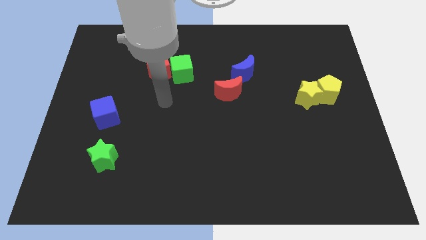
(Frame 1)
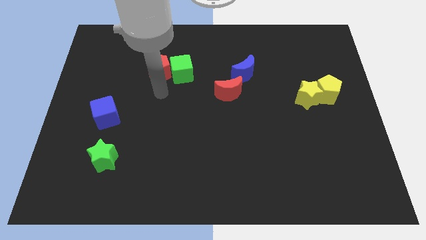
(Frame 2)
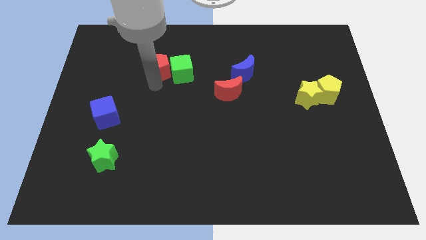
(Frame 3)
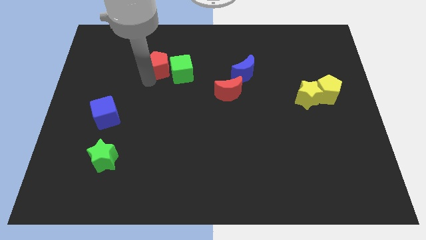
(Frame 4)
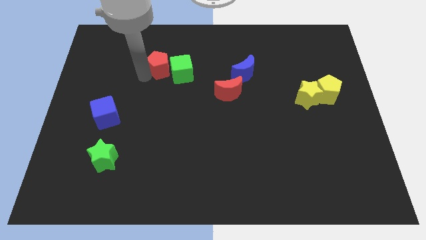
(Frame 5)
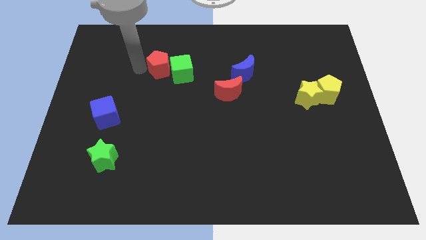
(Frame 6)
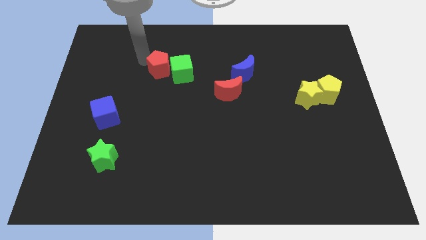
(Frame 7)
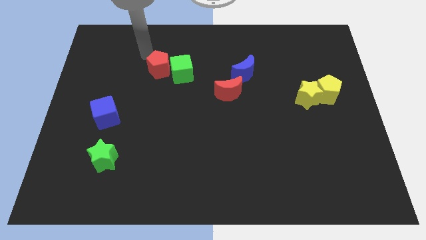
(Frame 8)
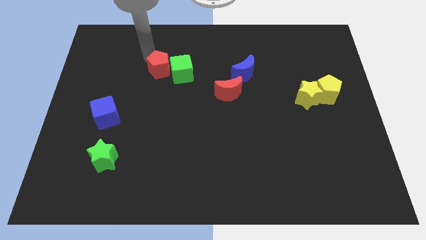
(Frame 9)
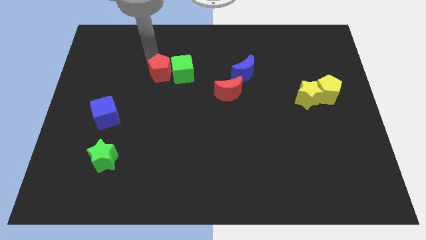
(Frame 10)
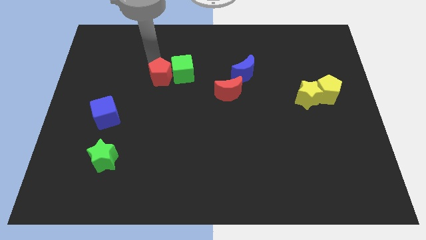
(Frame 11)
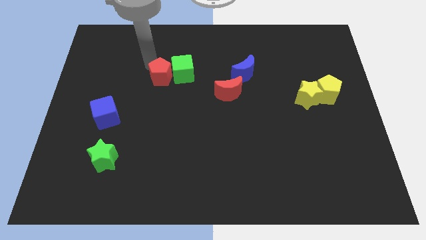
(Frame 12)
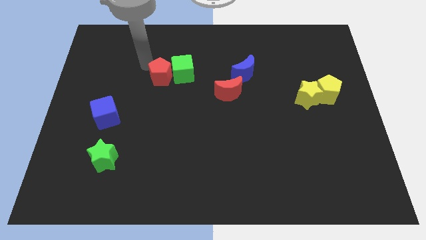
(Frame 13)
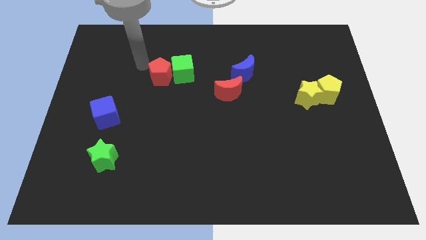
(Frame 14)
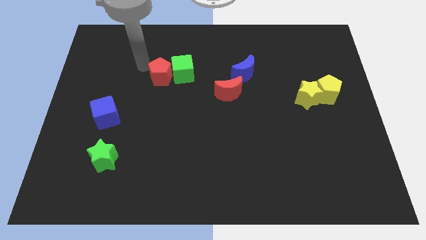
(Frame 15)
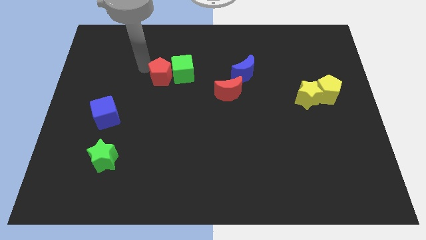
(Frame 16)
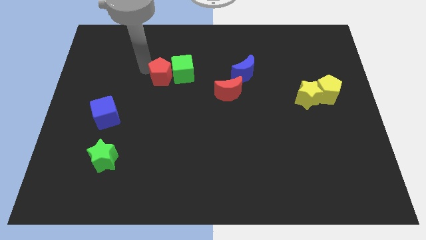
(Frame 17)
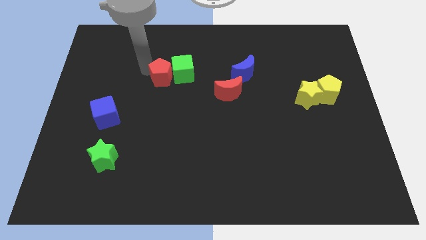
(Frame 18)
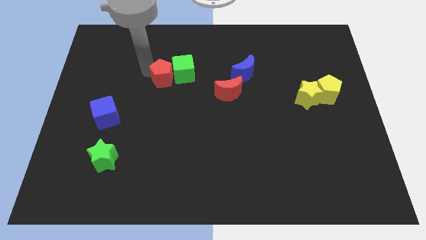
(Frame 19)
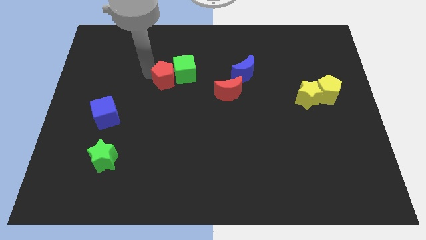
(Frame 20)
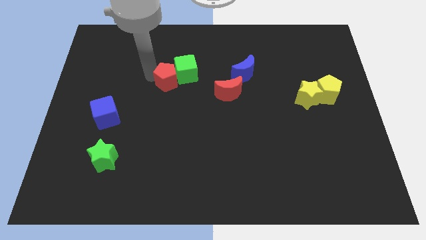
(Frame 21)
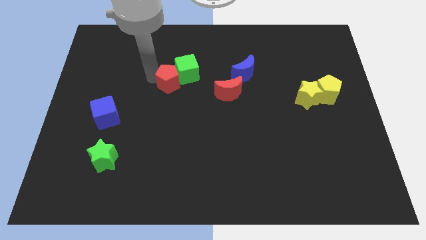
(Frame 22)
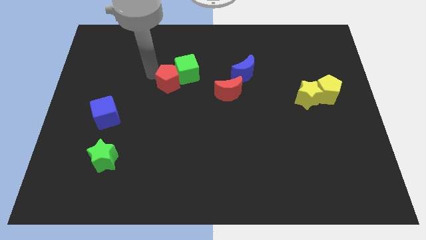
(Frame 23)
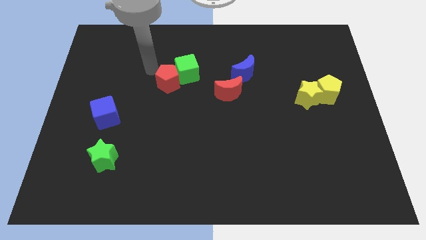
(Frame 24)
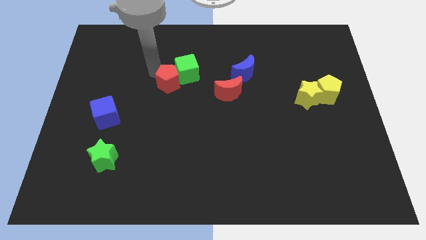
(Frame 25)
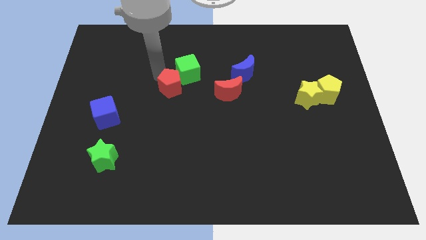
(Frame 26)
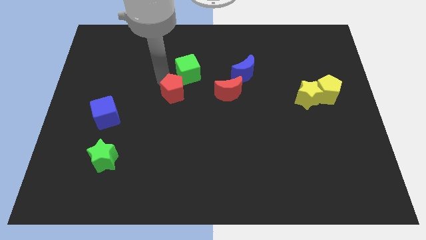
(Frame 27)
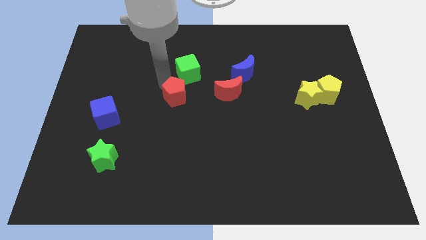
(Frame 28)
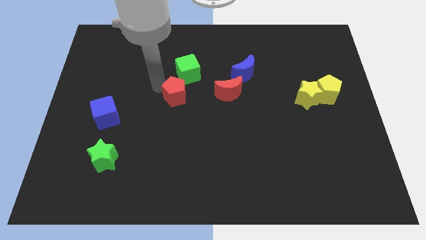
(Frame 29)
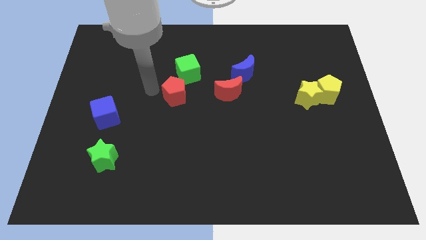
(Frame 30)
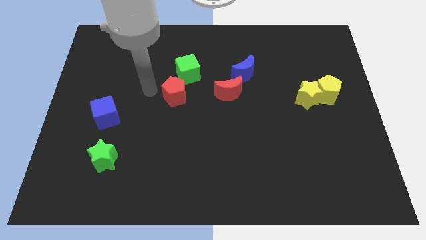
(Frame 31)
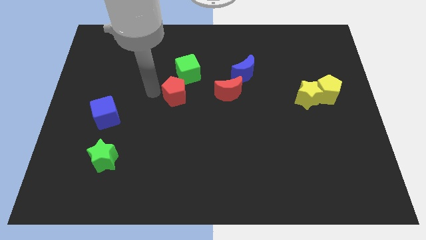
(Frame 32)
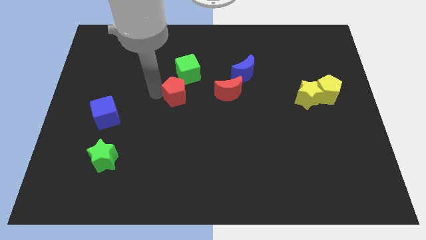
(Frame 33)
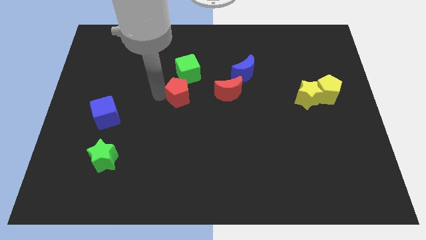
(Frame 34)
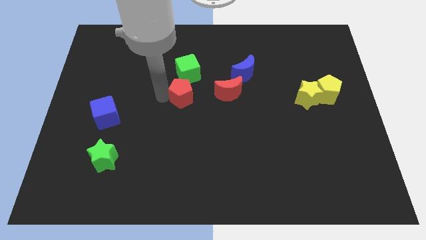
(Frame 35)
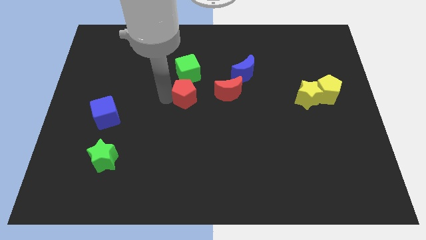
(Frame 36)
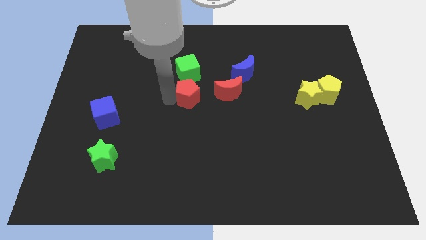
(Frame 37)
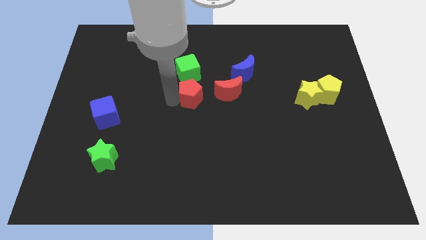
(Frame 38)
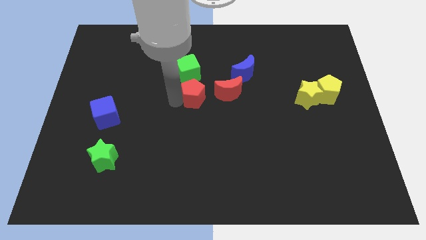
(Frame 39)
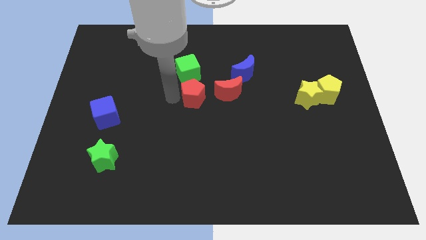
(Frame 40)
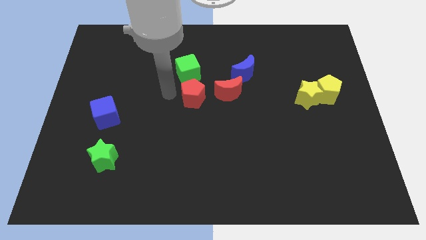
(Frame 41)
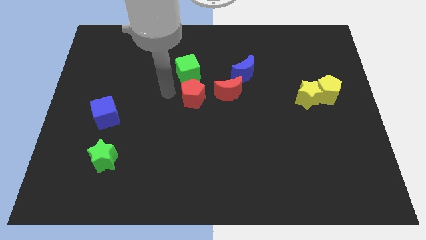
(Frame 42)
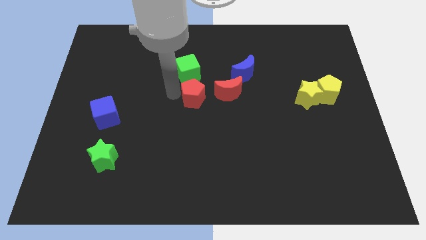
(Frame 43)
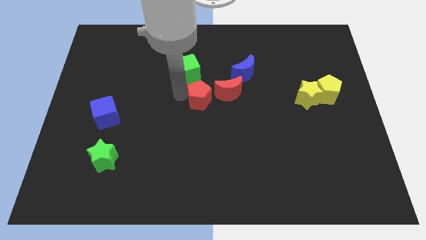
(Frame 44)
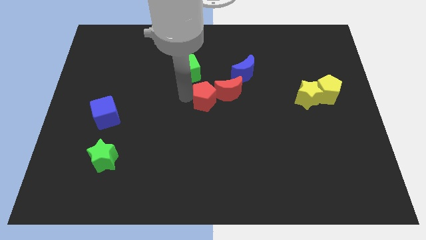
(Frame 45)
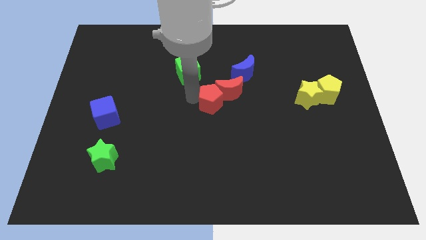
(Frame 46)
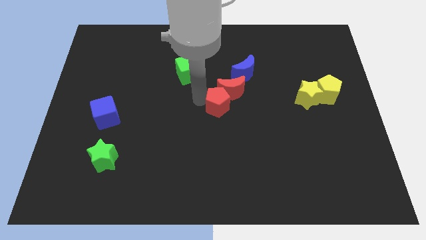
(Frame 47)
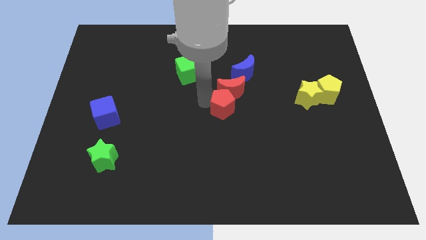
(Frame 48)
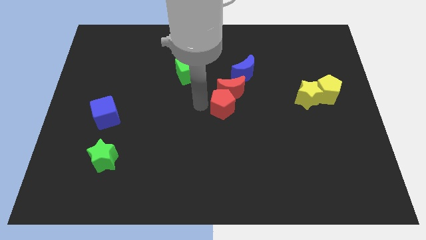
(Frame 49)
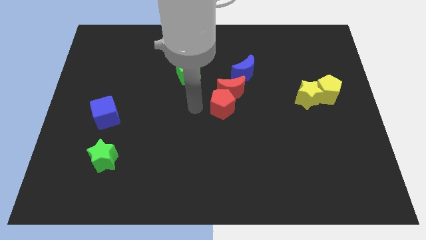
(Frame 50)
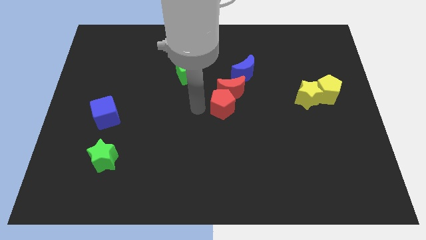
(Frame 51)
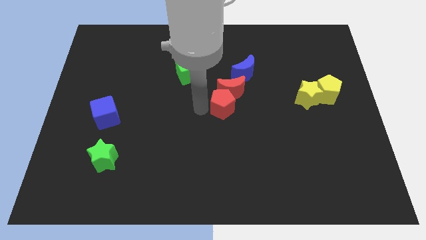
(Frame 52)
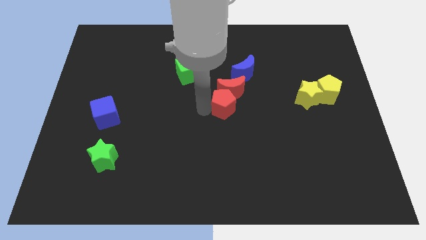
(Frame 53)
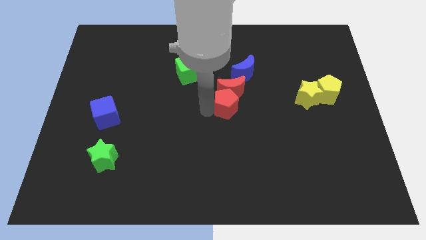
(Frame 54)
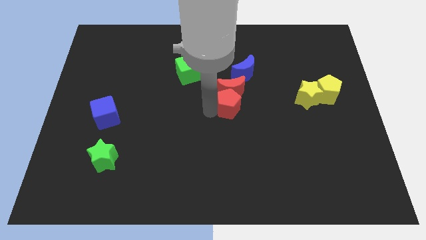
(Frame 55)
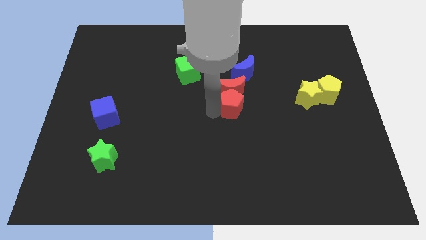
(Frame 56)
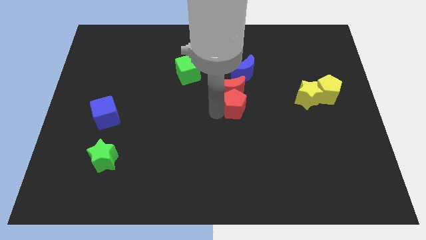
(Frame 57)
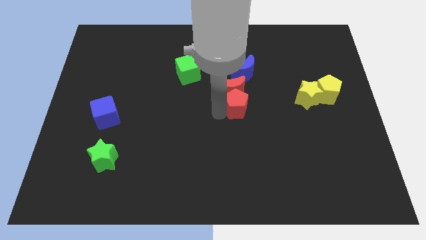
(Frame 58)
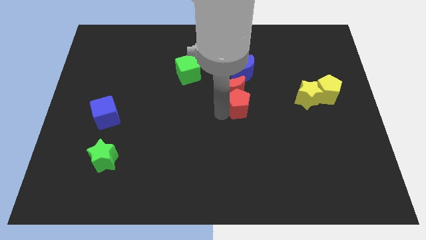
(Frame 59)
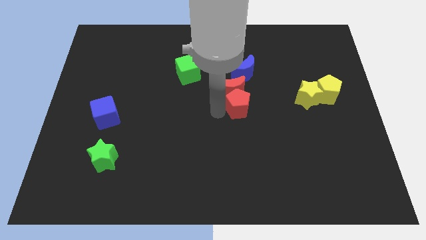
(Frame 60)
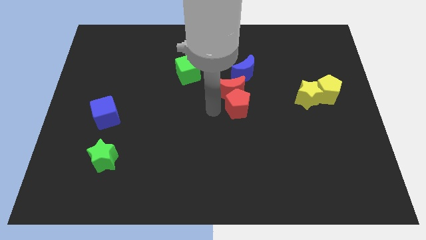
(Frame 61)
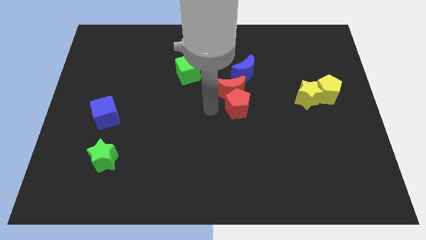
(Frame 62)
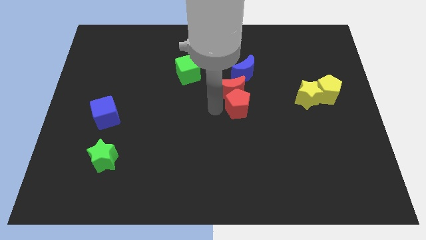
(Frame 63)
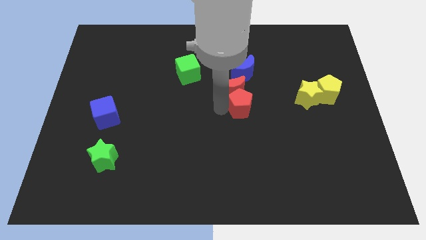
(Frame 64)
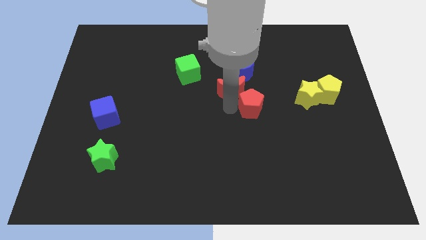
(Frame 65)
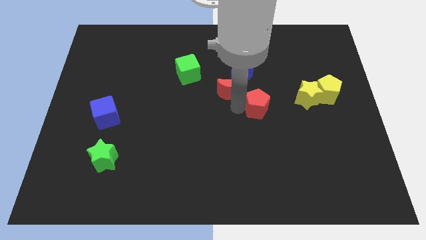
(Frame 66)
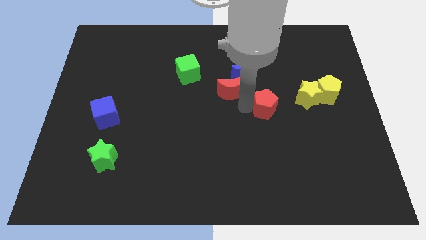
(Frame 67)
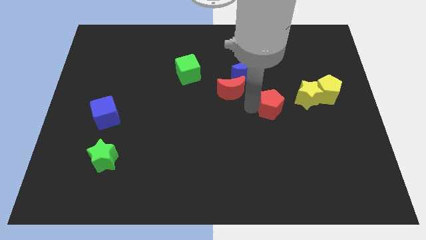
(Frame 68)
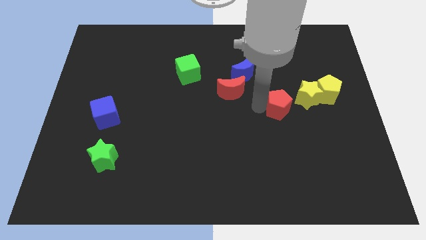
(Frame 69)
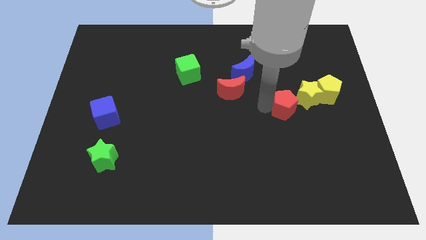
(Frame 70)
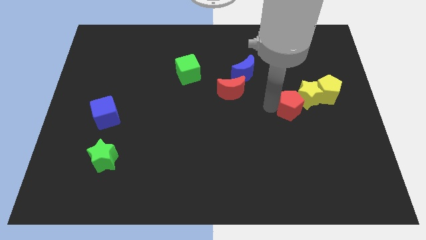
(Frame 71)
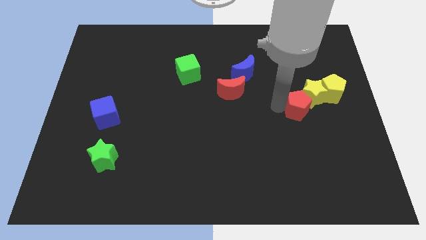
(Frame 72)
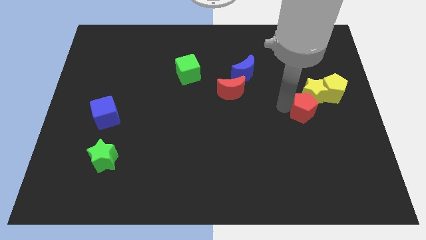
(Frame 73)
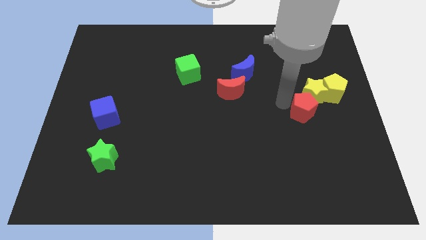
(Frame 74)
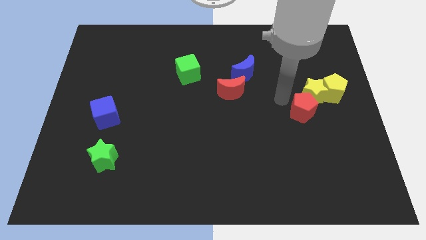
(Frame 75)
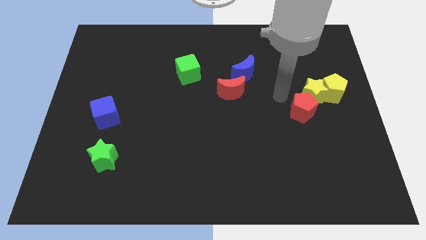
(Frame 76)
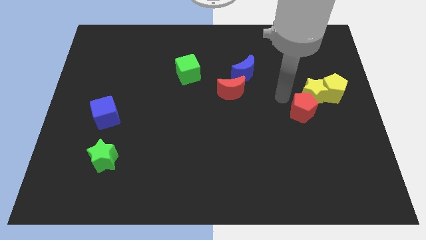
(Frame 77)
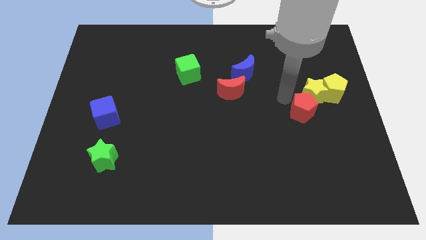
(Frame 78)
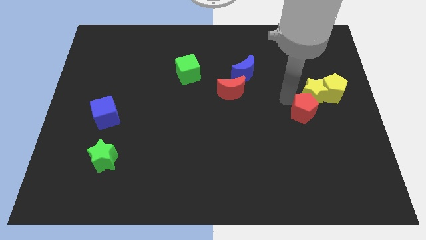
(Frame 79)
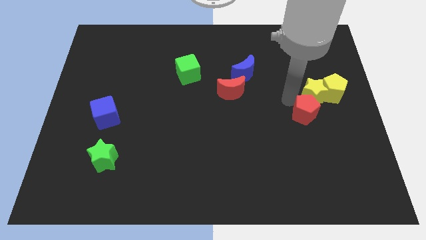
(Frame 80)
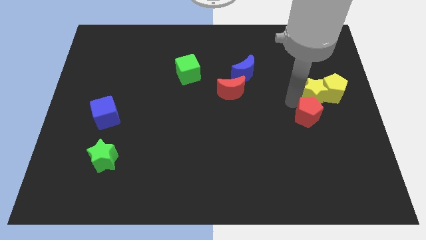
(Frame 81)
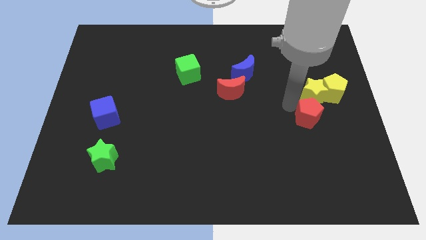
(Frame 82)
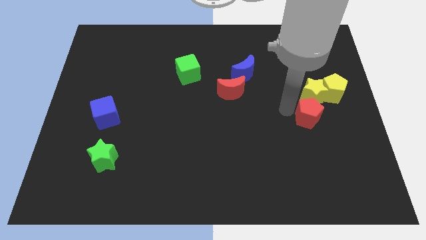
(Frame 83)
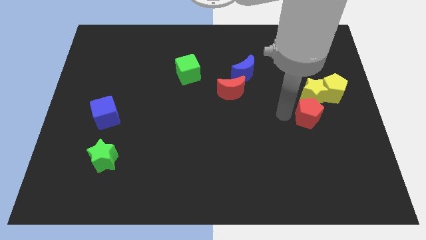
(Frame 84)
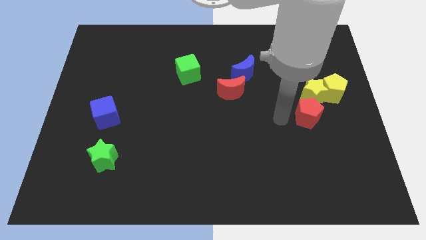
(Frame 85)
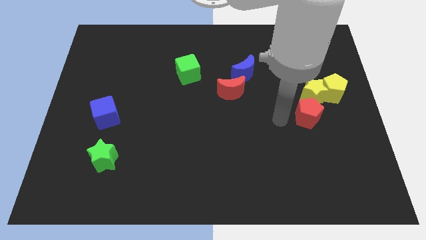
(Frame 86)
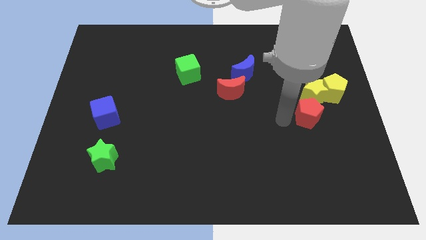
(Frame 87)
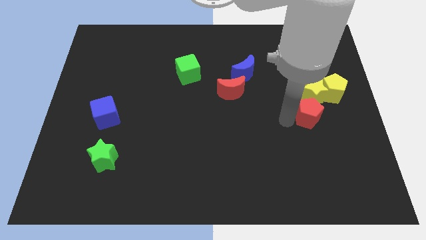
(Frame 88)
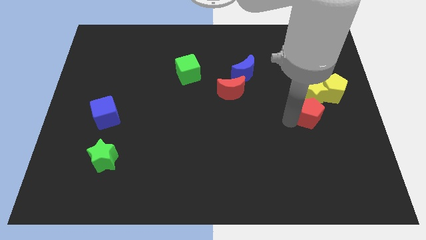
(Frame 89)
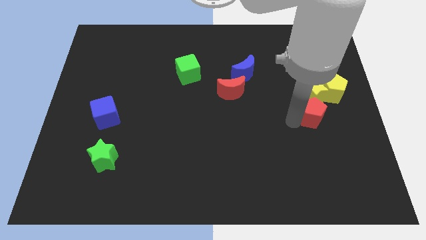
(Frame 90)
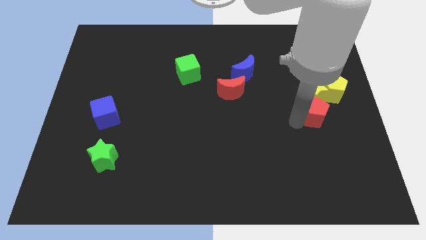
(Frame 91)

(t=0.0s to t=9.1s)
move the red pentagon to the bottom right of the yellow star
